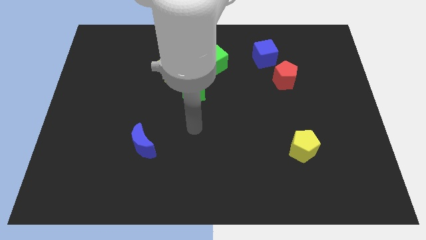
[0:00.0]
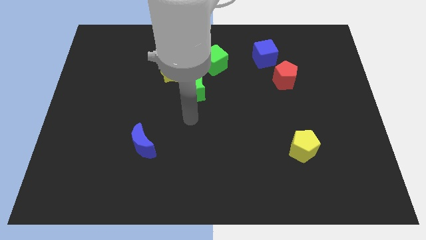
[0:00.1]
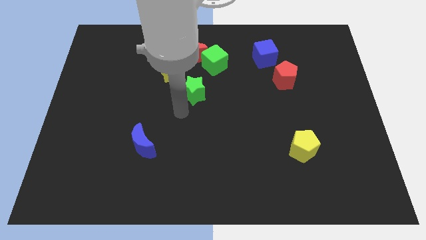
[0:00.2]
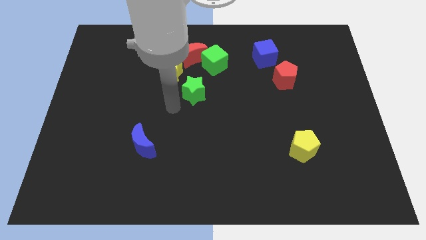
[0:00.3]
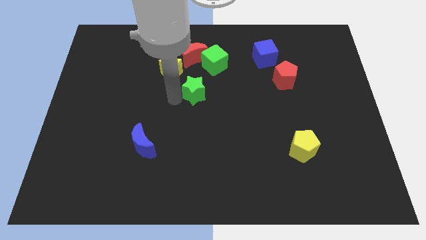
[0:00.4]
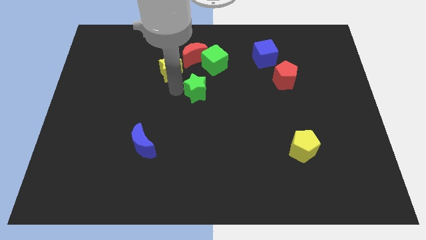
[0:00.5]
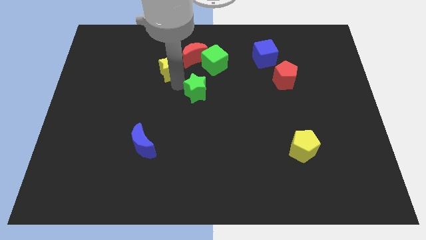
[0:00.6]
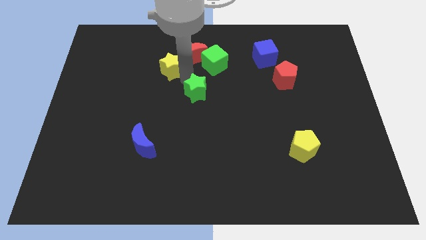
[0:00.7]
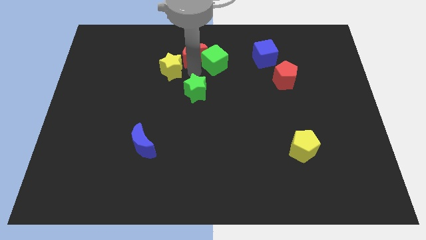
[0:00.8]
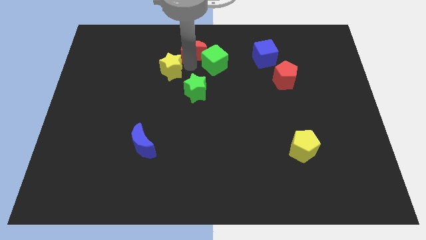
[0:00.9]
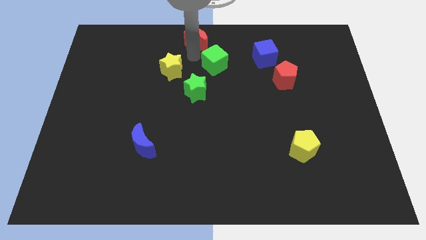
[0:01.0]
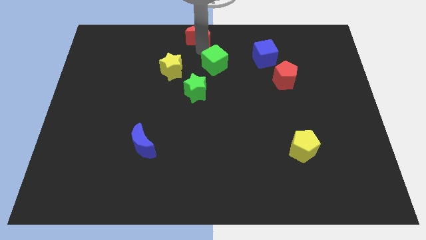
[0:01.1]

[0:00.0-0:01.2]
separate the green cube from the red moon

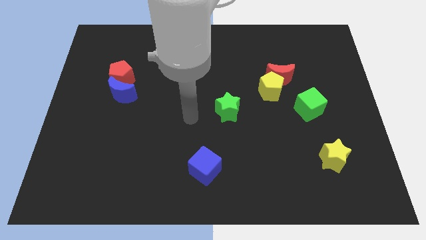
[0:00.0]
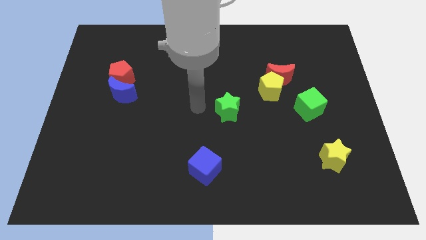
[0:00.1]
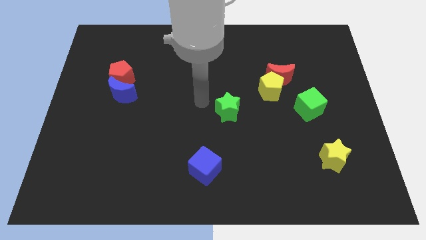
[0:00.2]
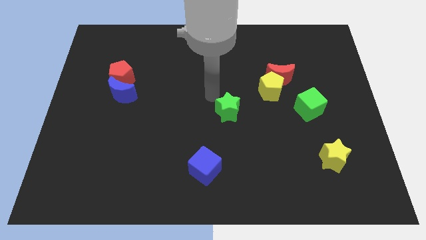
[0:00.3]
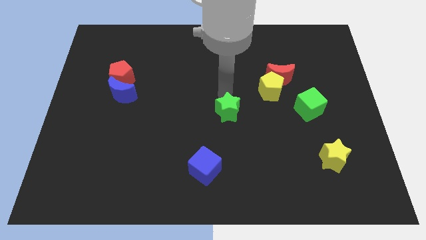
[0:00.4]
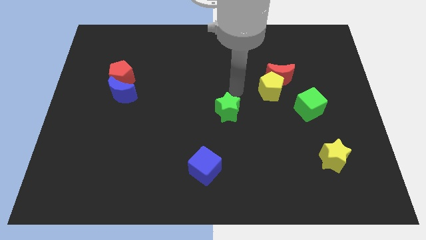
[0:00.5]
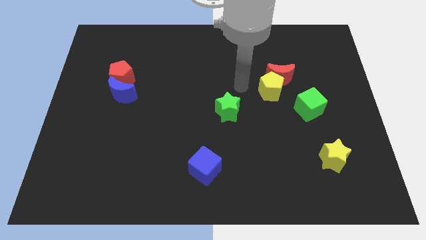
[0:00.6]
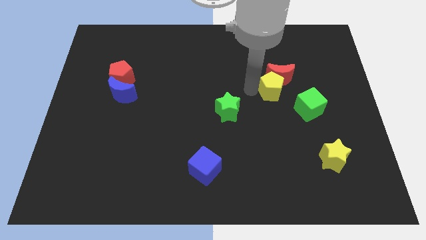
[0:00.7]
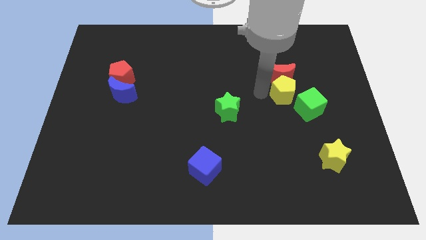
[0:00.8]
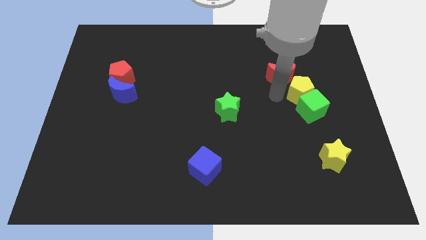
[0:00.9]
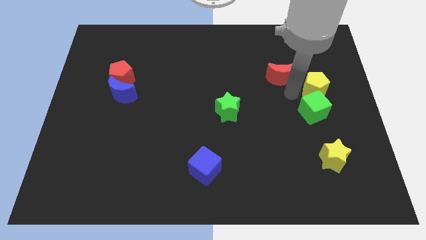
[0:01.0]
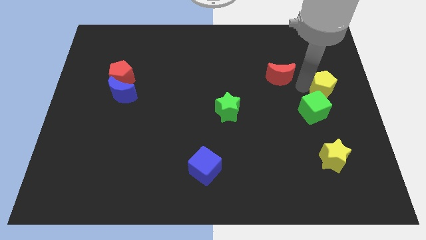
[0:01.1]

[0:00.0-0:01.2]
pull the red moon apart from the yellow pentagon

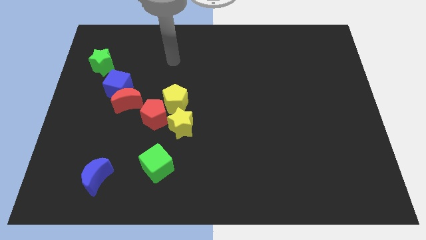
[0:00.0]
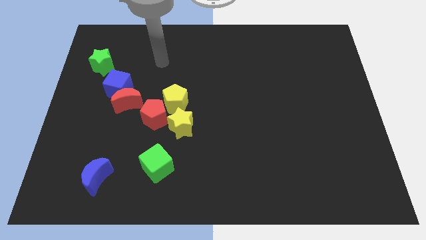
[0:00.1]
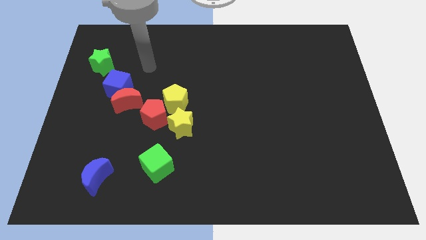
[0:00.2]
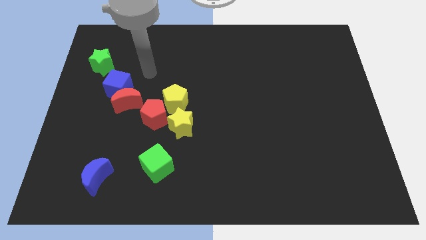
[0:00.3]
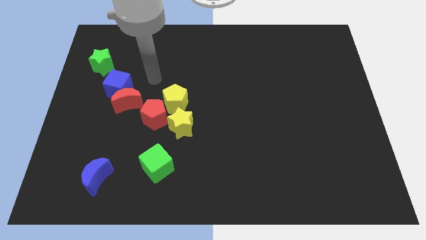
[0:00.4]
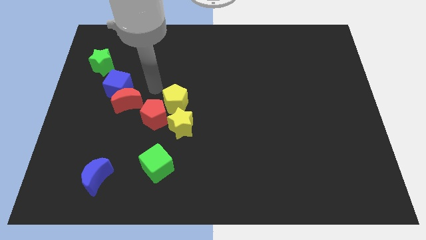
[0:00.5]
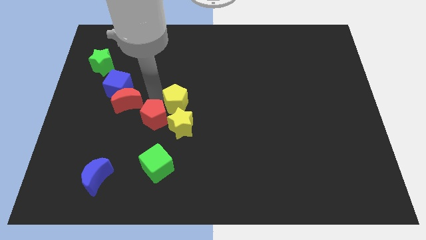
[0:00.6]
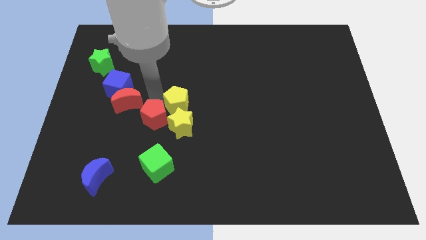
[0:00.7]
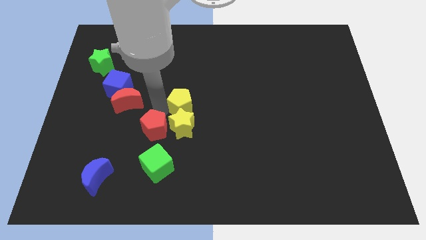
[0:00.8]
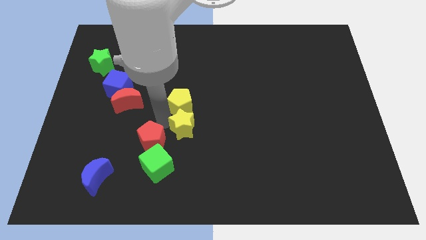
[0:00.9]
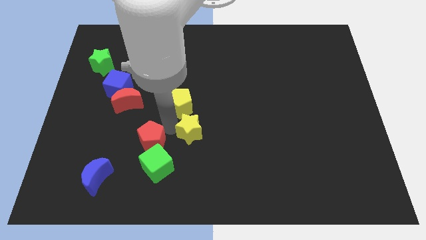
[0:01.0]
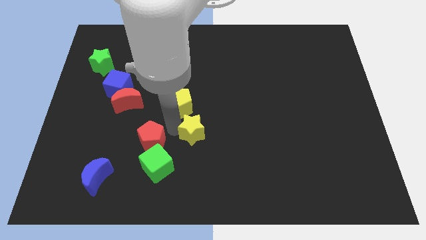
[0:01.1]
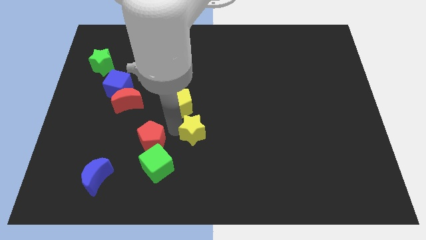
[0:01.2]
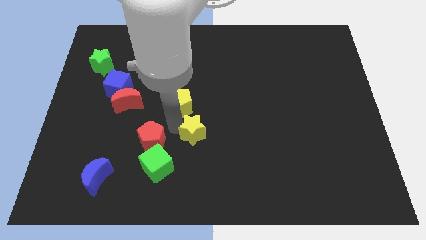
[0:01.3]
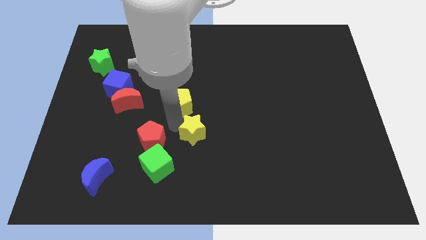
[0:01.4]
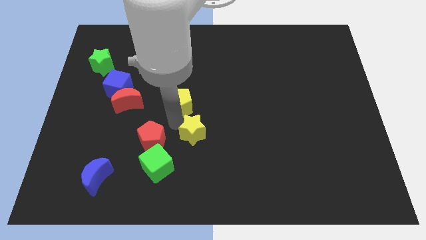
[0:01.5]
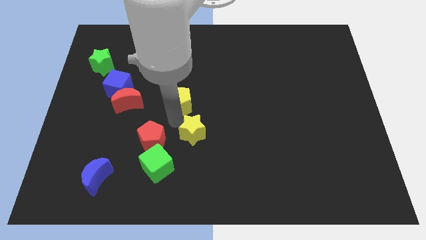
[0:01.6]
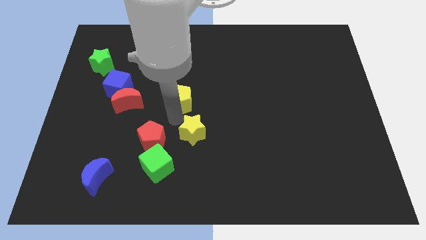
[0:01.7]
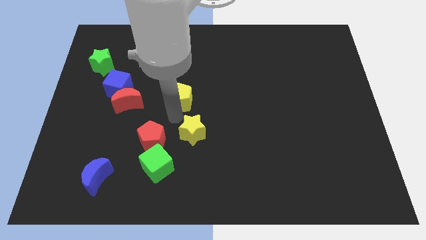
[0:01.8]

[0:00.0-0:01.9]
separate the yellow pentagon from the red pentagon and yellow star

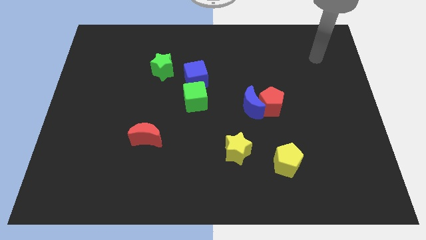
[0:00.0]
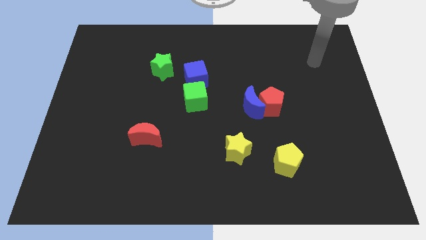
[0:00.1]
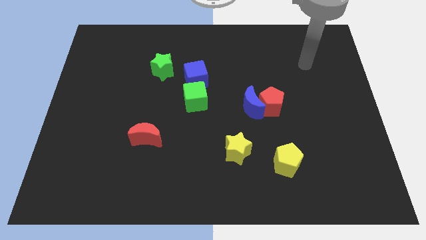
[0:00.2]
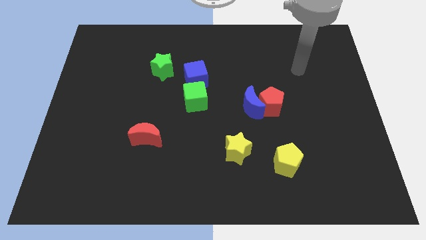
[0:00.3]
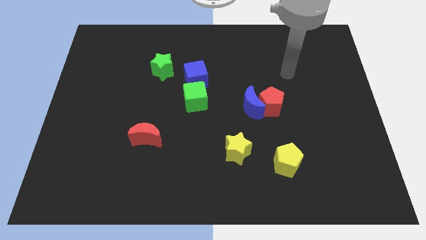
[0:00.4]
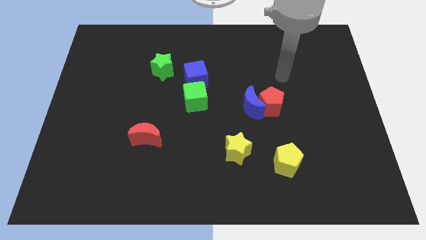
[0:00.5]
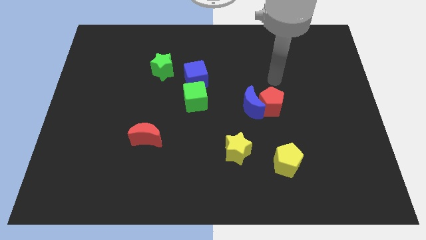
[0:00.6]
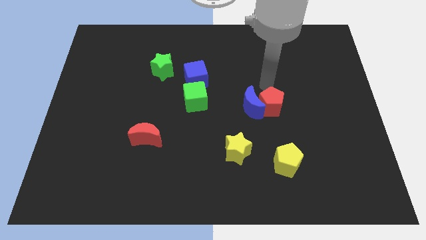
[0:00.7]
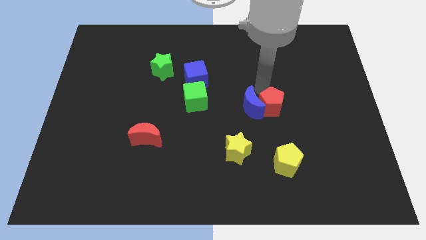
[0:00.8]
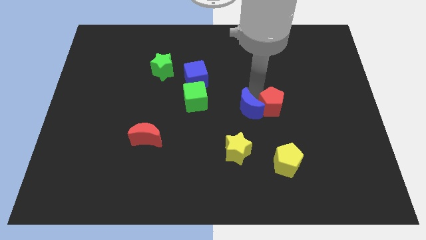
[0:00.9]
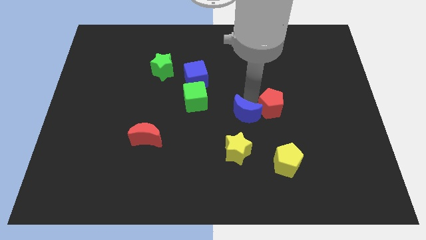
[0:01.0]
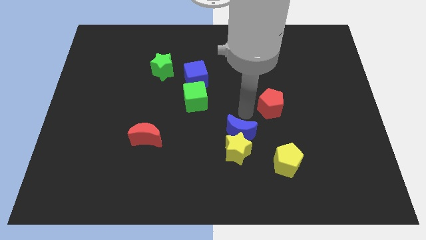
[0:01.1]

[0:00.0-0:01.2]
pull the red pentagon apart from the blue moon

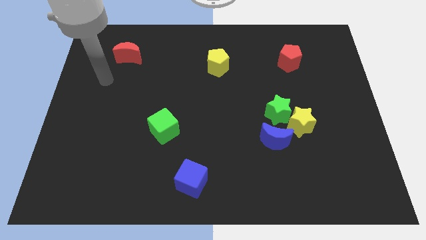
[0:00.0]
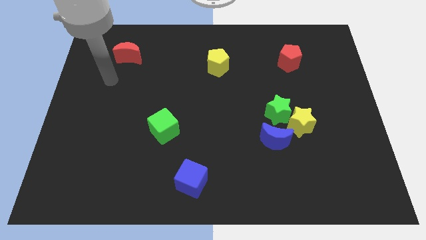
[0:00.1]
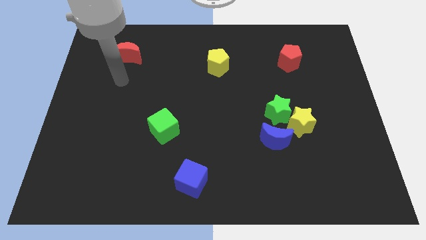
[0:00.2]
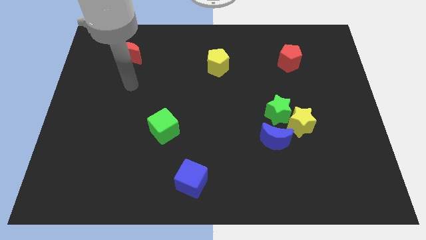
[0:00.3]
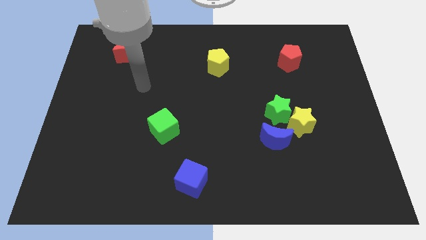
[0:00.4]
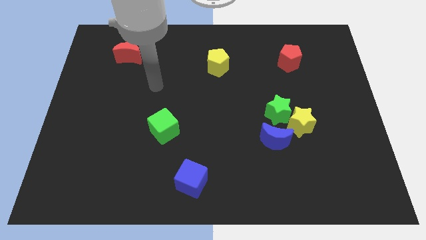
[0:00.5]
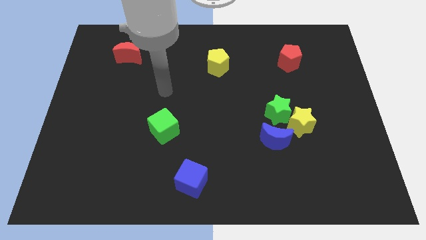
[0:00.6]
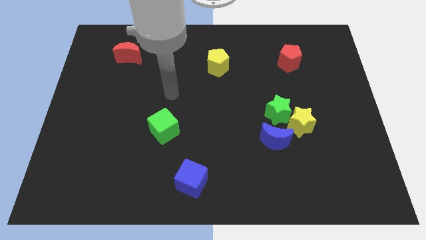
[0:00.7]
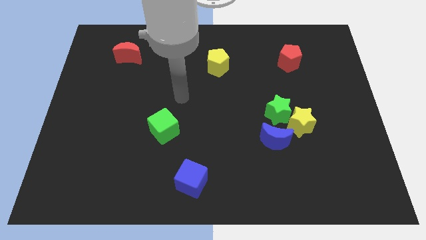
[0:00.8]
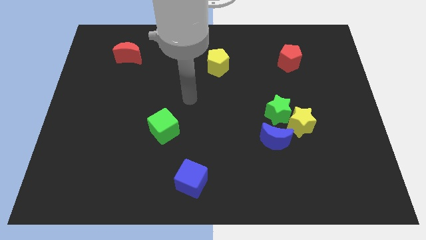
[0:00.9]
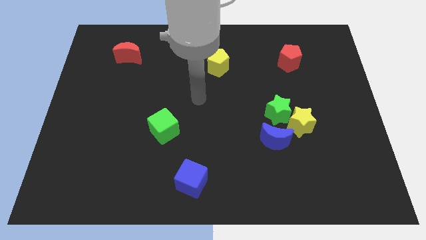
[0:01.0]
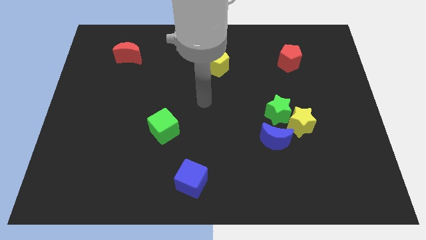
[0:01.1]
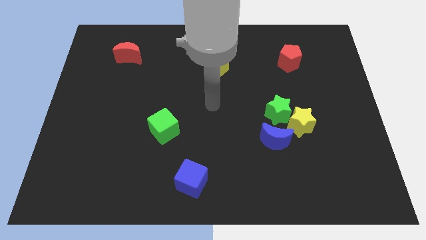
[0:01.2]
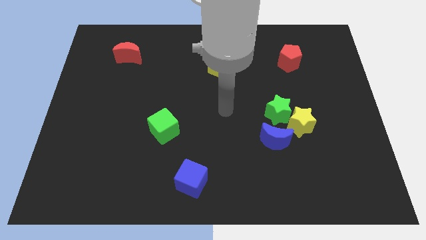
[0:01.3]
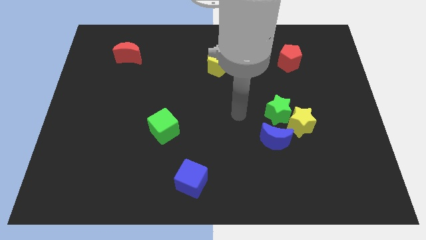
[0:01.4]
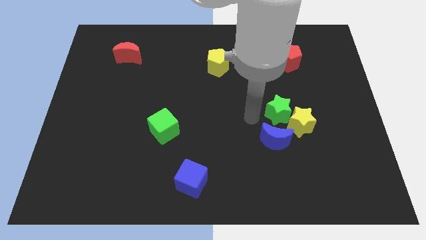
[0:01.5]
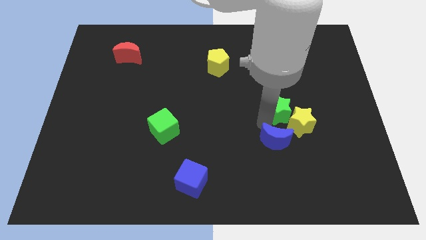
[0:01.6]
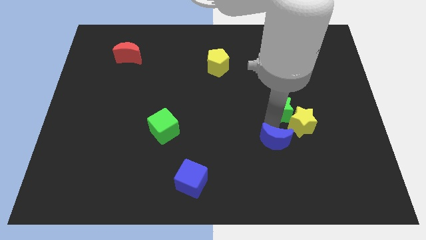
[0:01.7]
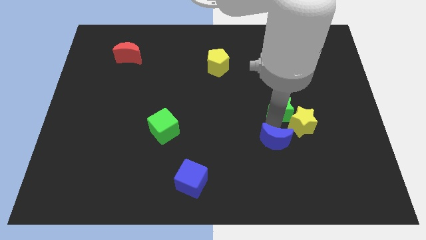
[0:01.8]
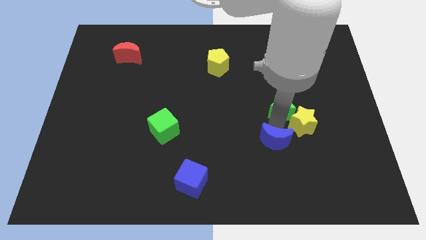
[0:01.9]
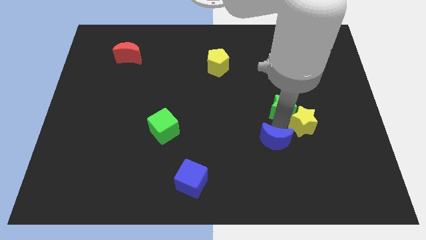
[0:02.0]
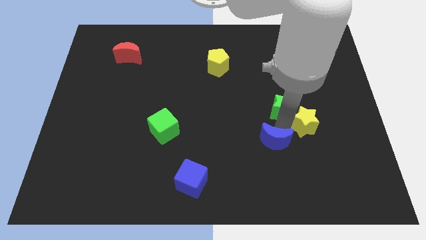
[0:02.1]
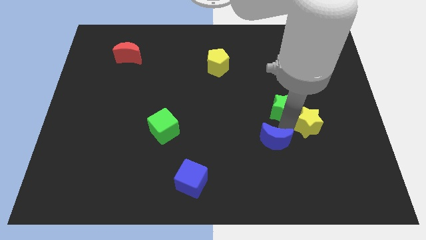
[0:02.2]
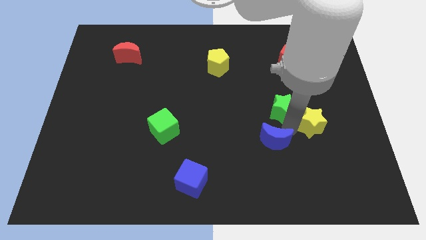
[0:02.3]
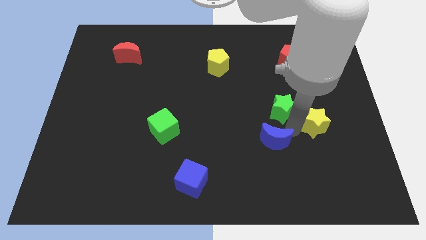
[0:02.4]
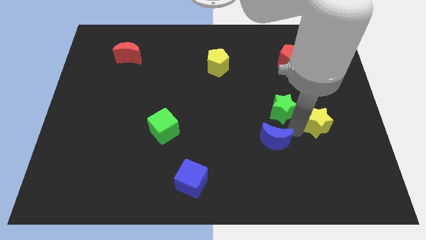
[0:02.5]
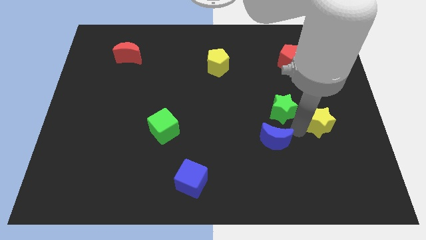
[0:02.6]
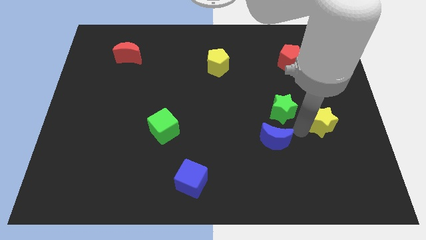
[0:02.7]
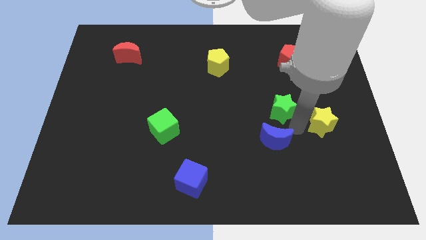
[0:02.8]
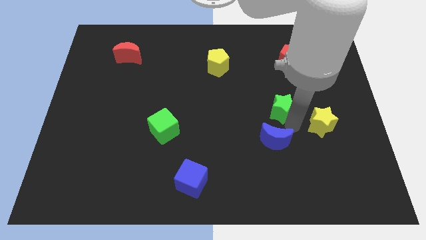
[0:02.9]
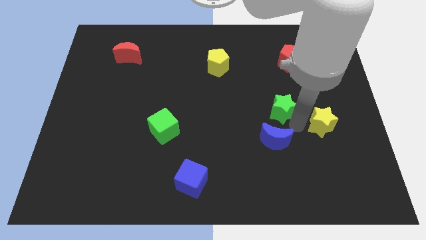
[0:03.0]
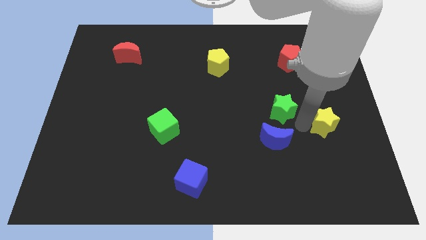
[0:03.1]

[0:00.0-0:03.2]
pull the yellow star apart from the green star and blue moon

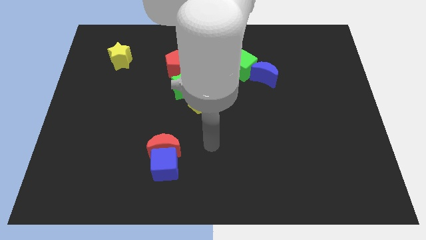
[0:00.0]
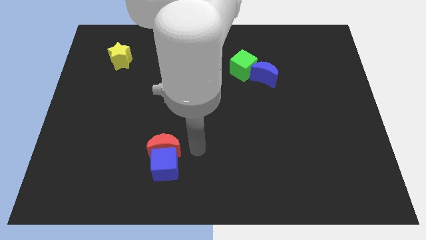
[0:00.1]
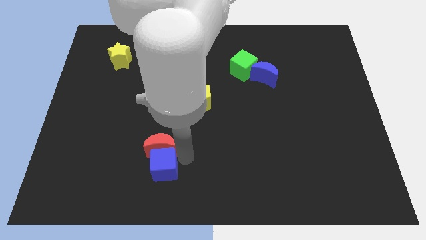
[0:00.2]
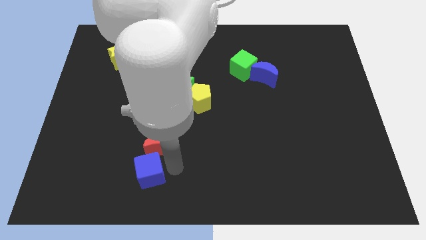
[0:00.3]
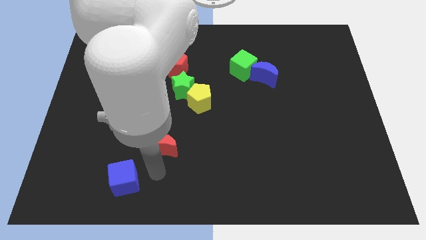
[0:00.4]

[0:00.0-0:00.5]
separate the red moon from the blue cube
